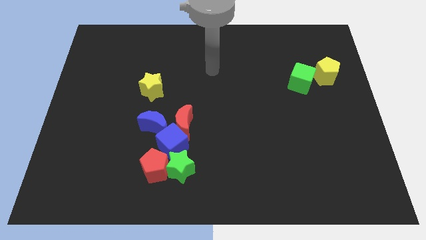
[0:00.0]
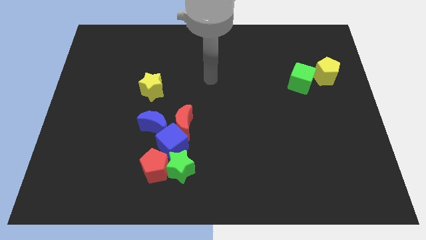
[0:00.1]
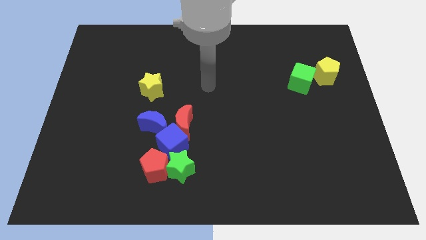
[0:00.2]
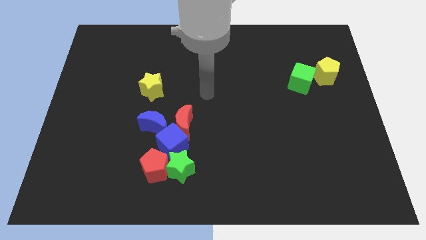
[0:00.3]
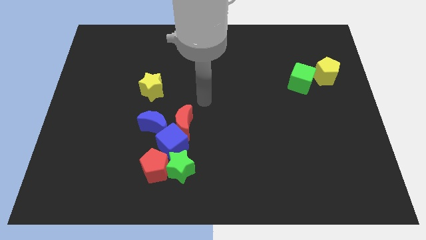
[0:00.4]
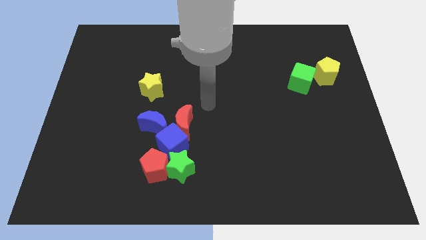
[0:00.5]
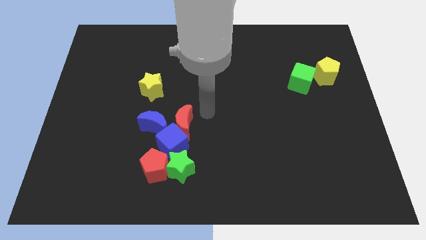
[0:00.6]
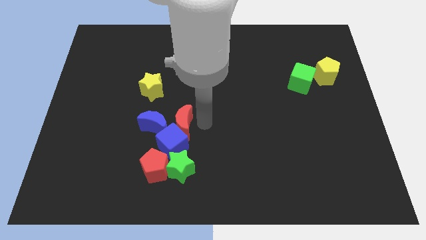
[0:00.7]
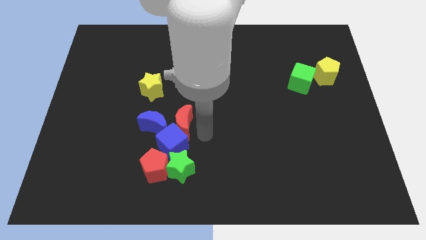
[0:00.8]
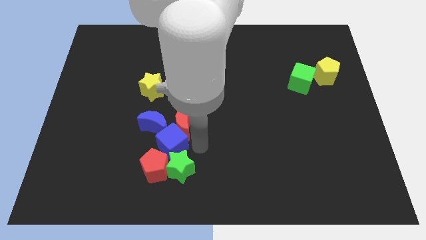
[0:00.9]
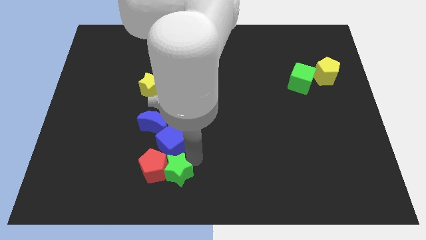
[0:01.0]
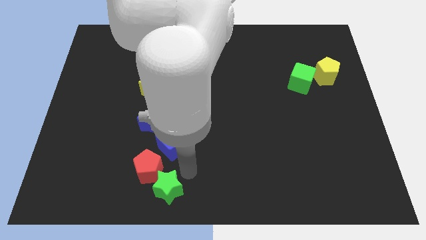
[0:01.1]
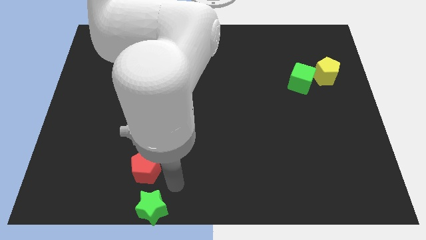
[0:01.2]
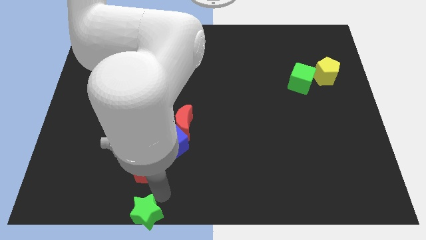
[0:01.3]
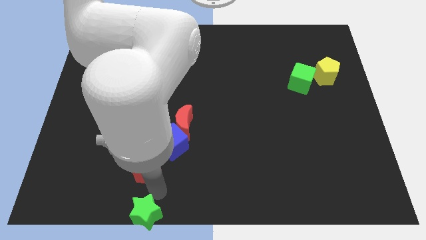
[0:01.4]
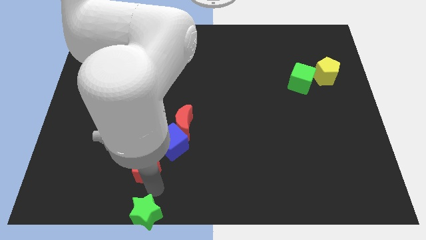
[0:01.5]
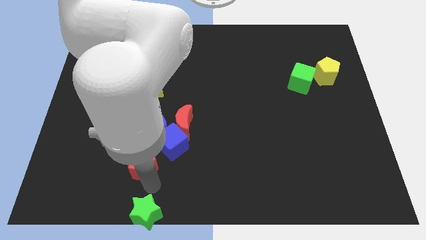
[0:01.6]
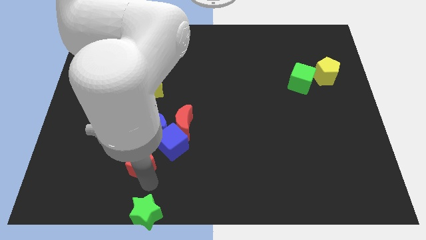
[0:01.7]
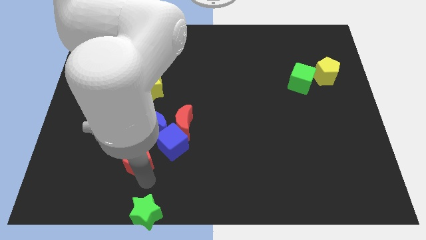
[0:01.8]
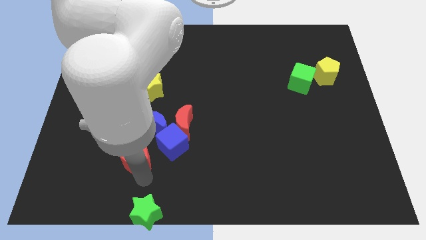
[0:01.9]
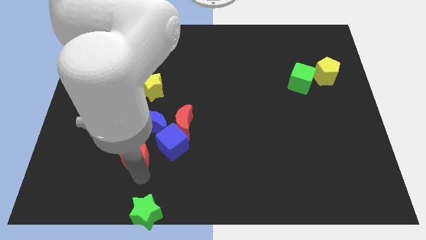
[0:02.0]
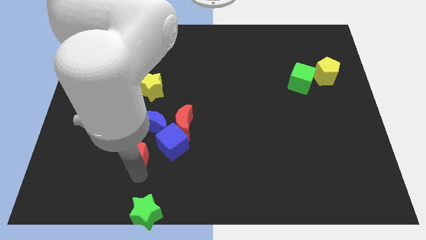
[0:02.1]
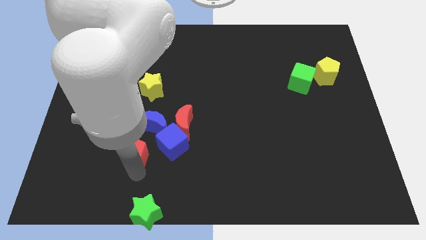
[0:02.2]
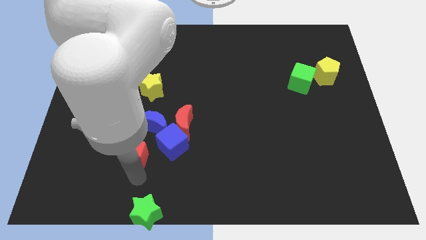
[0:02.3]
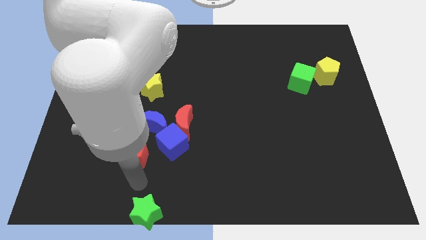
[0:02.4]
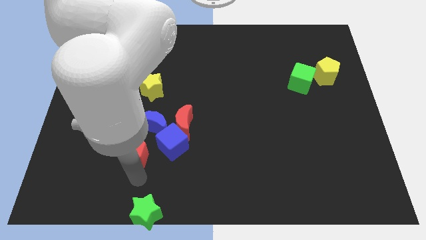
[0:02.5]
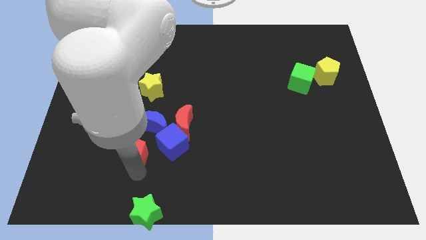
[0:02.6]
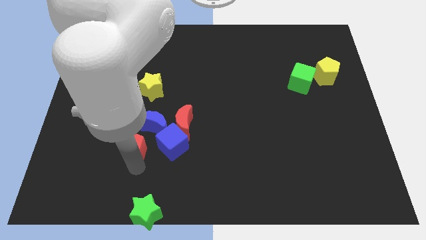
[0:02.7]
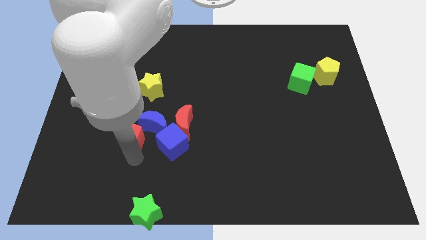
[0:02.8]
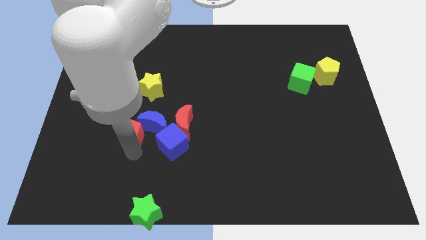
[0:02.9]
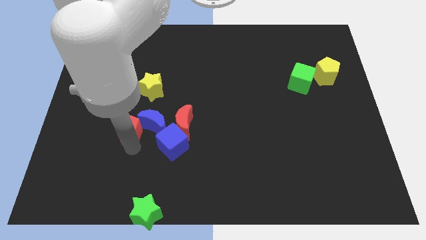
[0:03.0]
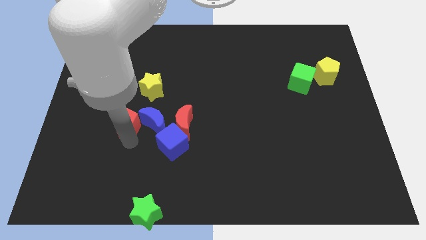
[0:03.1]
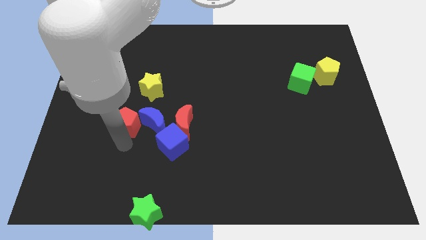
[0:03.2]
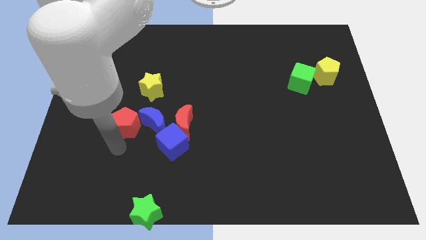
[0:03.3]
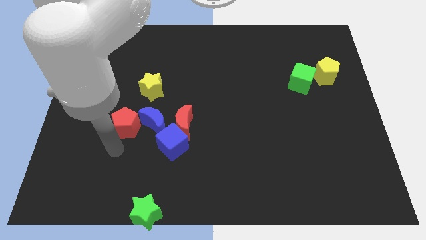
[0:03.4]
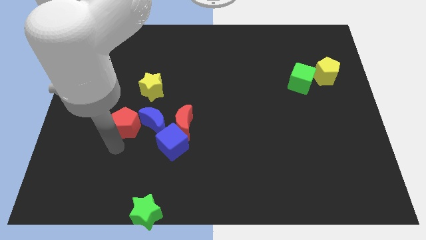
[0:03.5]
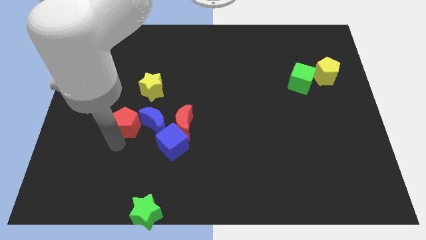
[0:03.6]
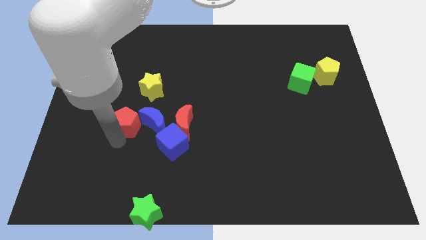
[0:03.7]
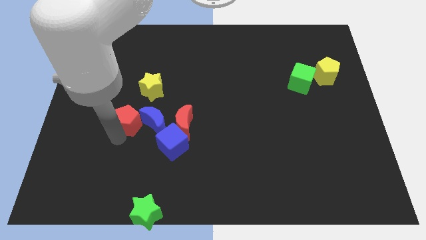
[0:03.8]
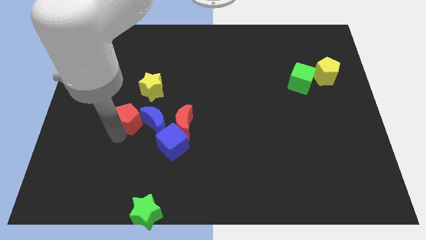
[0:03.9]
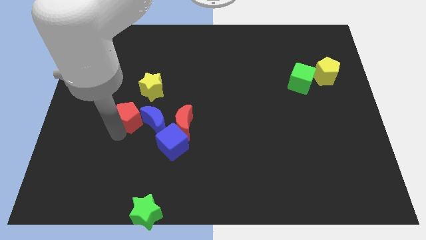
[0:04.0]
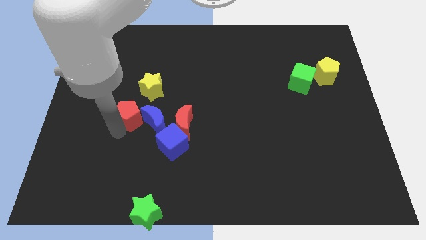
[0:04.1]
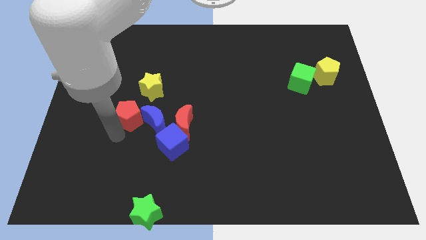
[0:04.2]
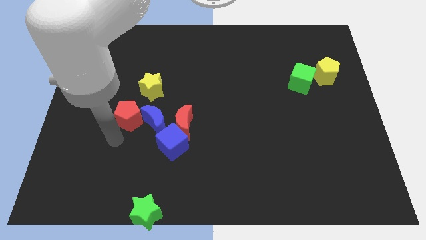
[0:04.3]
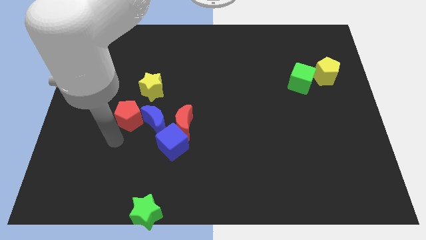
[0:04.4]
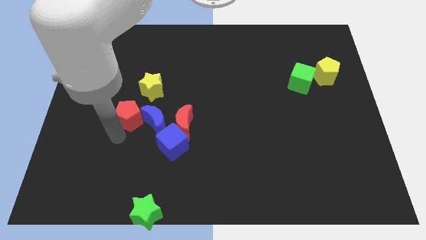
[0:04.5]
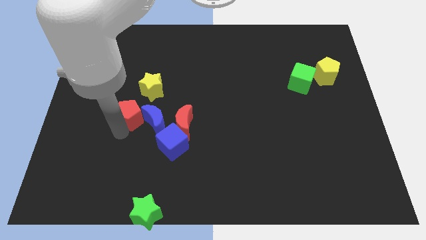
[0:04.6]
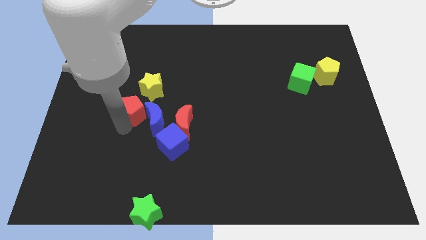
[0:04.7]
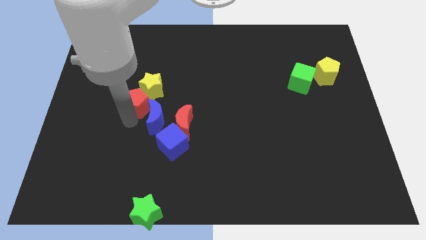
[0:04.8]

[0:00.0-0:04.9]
push the red pentagon to the top of the blue moon

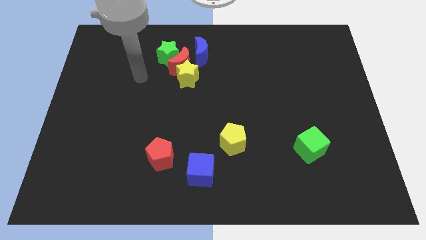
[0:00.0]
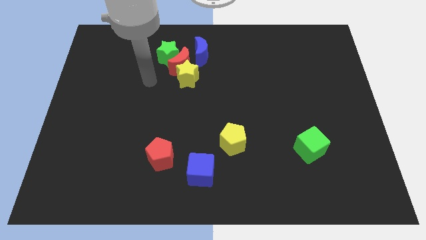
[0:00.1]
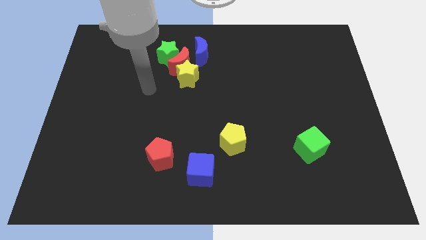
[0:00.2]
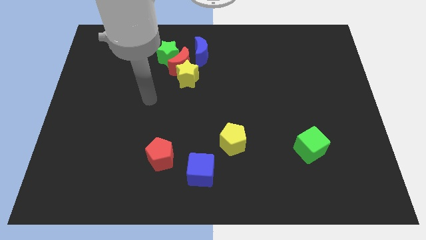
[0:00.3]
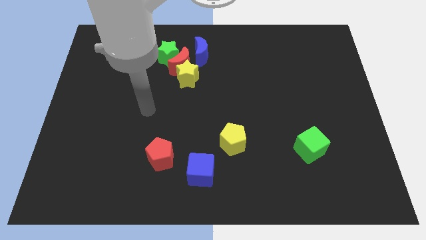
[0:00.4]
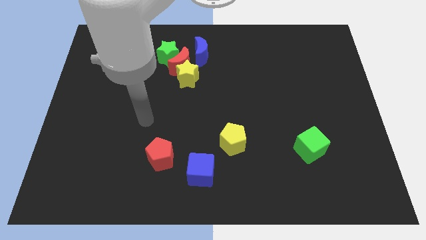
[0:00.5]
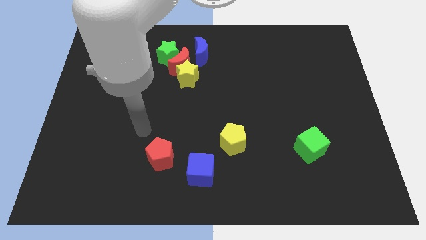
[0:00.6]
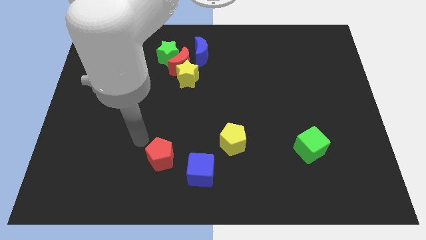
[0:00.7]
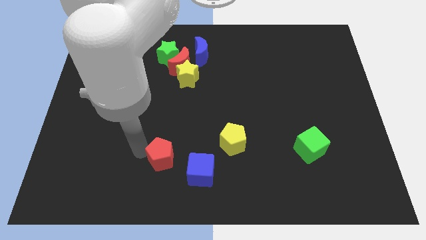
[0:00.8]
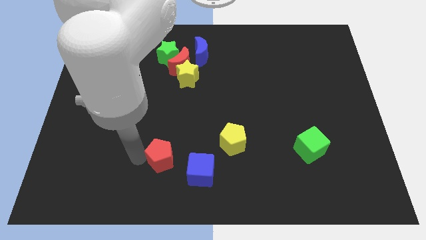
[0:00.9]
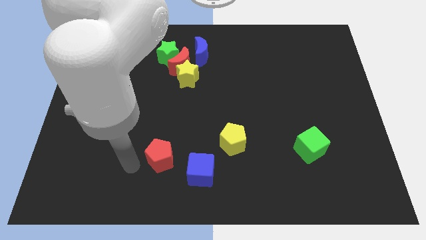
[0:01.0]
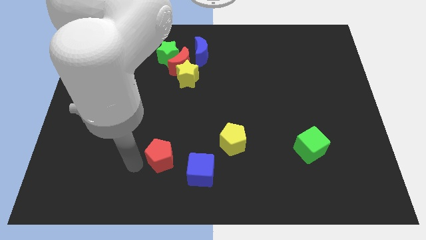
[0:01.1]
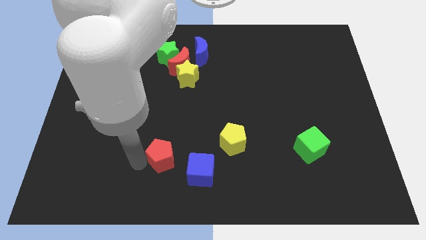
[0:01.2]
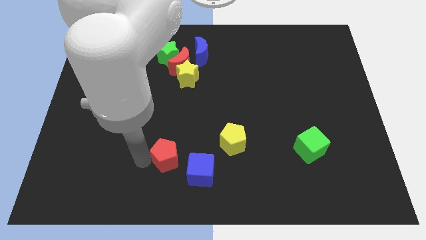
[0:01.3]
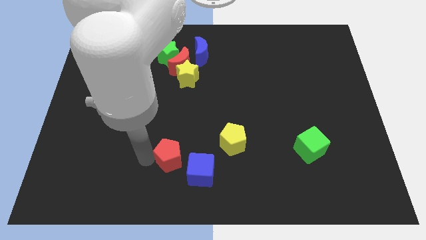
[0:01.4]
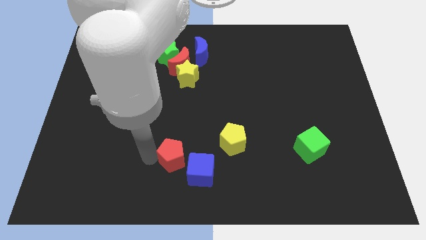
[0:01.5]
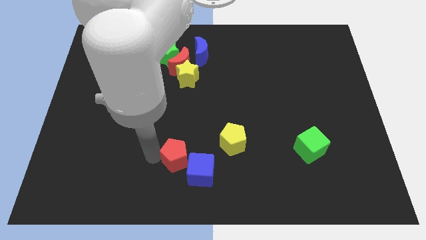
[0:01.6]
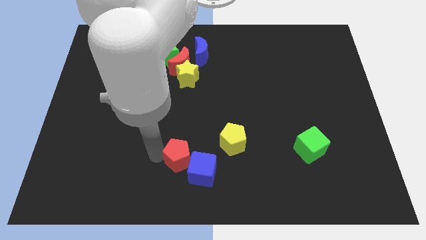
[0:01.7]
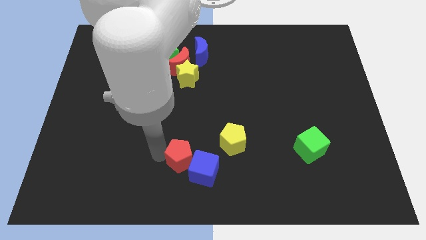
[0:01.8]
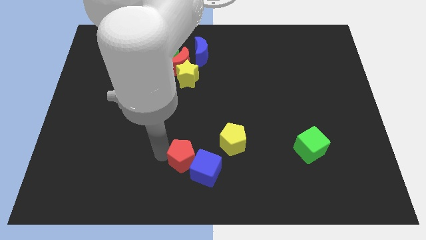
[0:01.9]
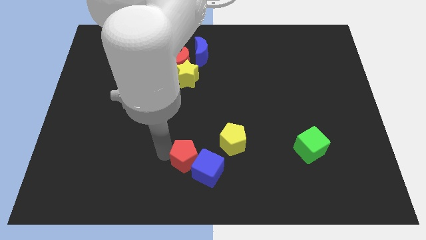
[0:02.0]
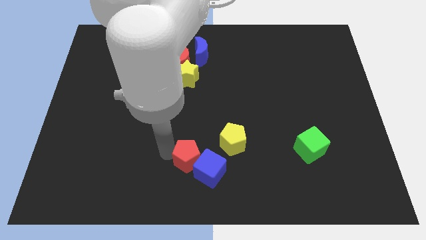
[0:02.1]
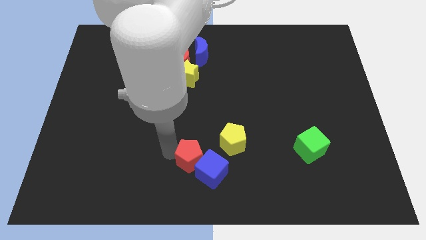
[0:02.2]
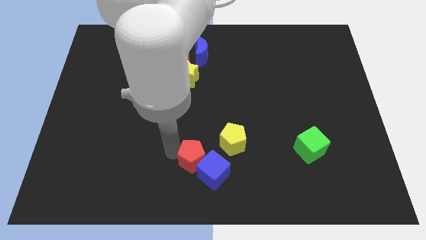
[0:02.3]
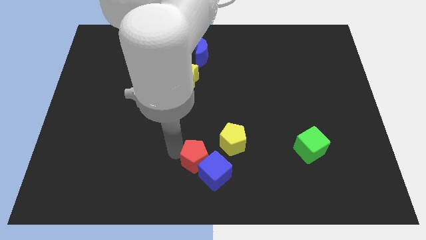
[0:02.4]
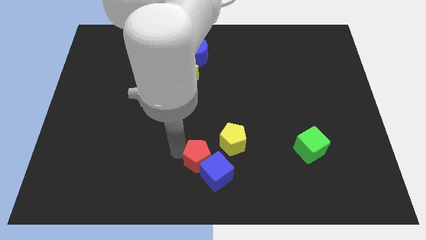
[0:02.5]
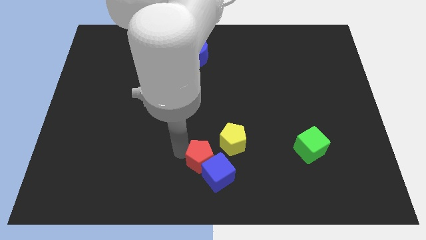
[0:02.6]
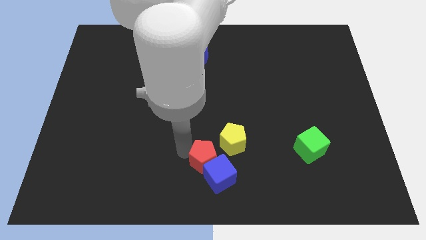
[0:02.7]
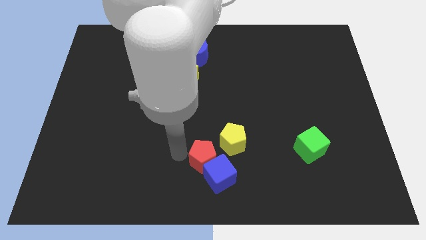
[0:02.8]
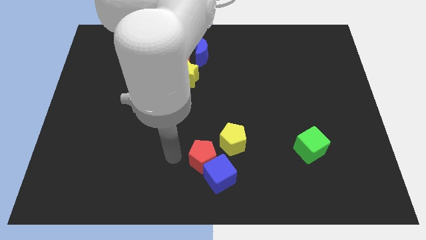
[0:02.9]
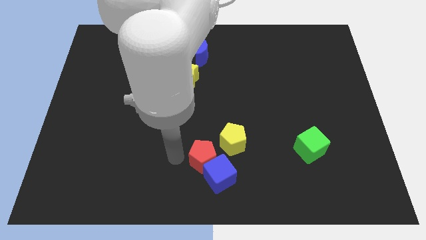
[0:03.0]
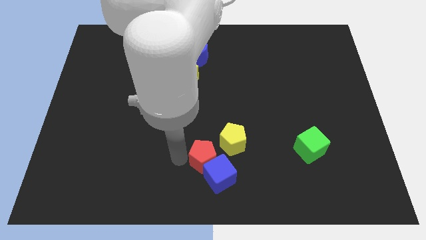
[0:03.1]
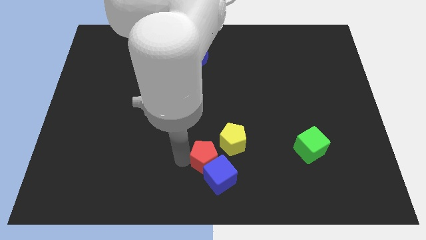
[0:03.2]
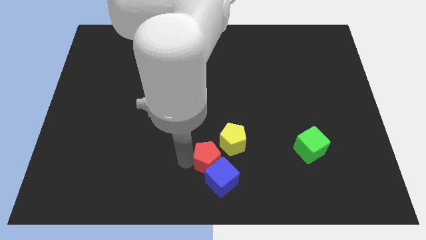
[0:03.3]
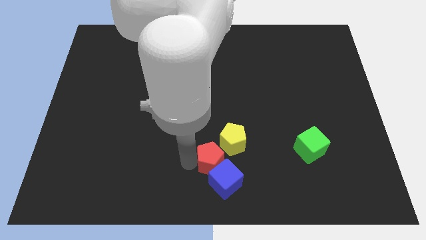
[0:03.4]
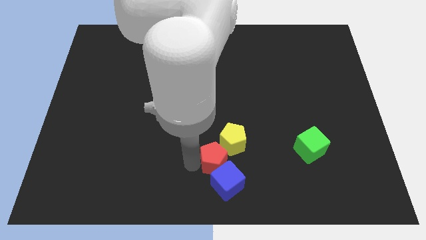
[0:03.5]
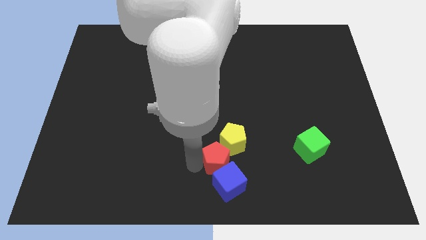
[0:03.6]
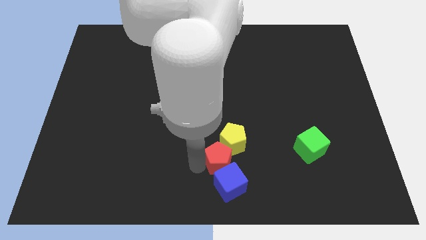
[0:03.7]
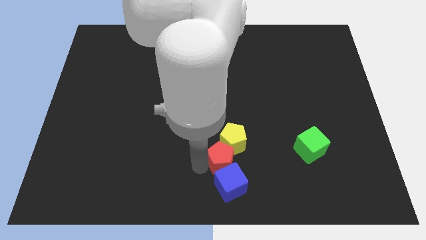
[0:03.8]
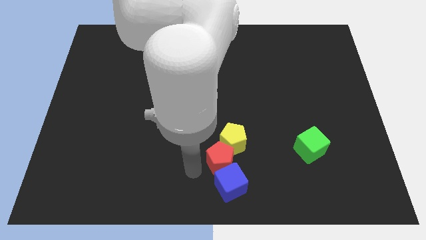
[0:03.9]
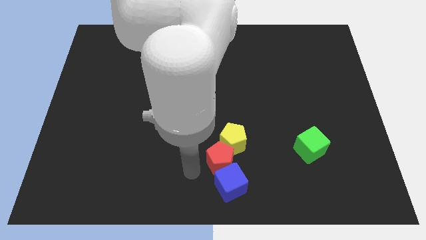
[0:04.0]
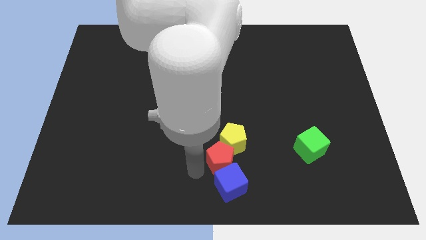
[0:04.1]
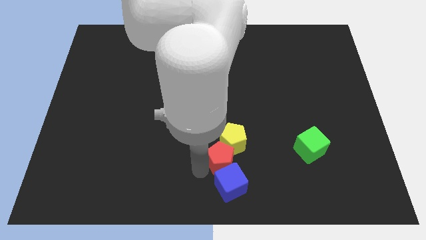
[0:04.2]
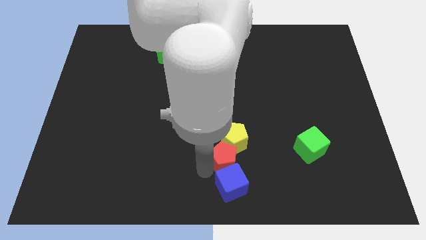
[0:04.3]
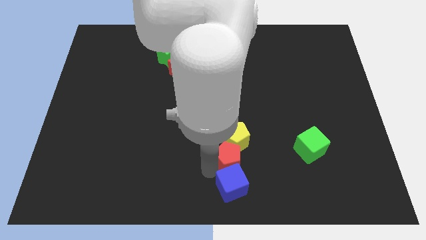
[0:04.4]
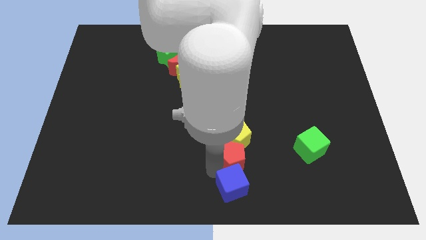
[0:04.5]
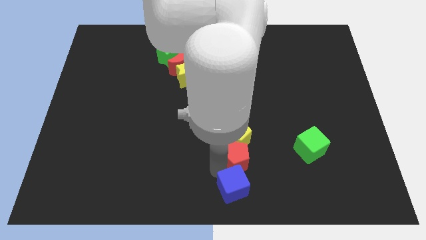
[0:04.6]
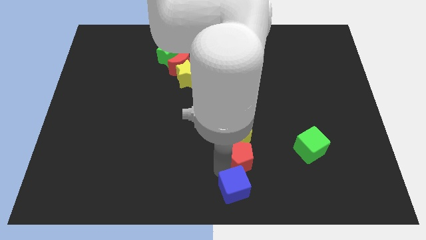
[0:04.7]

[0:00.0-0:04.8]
push the red pentagon just left of the green cube
